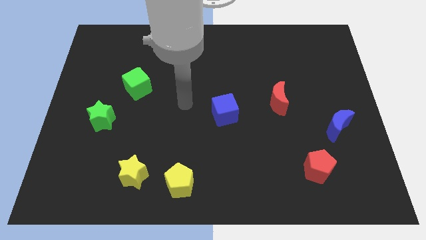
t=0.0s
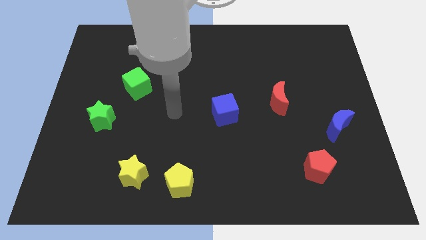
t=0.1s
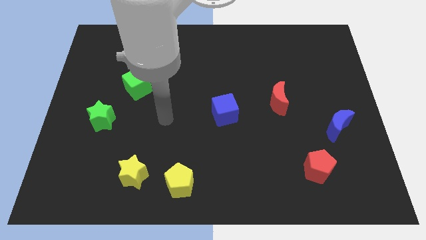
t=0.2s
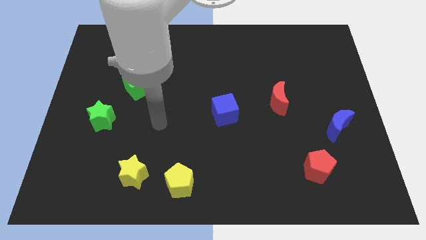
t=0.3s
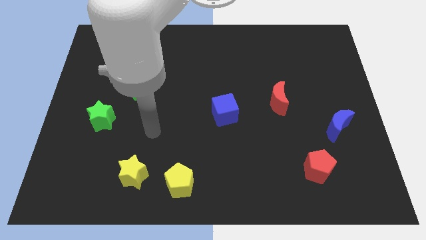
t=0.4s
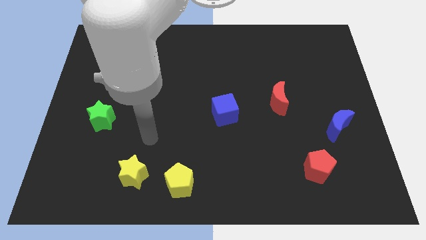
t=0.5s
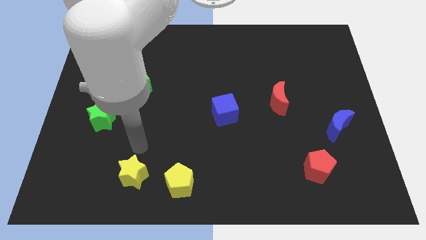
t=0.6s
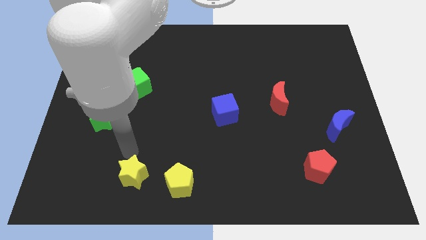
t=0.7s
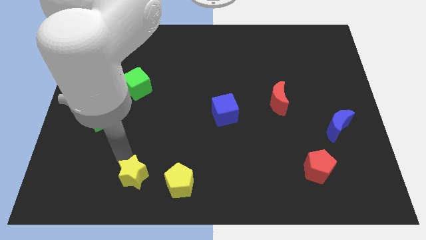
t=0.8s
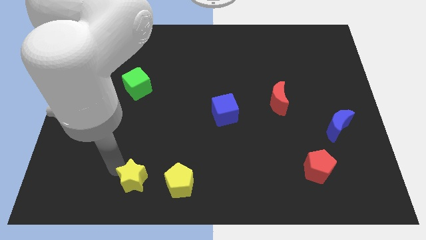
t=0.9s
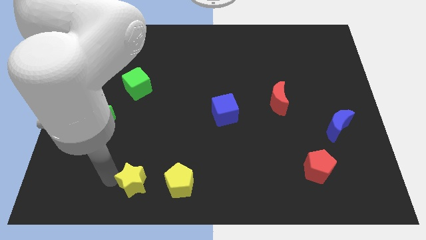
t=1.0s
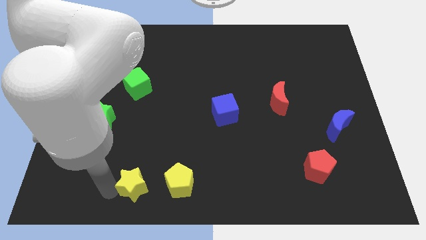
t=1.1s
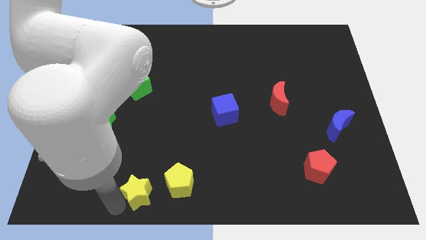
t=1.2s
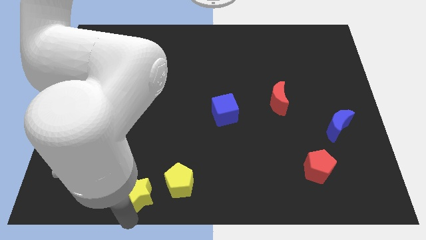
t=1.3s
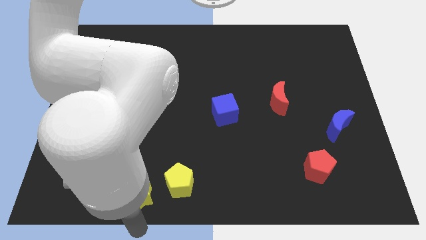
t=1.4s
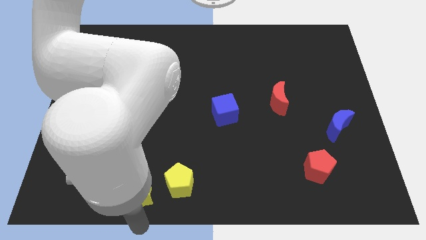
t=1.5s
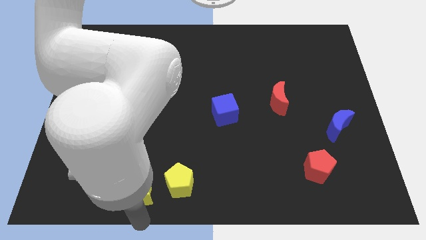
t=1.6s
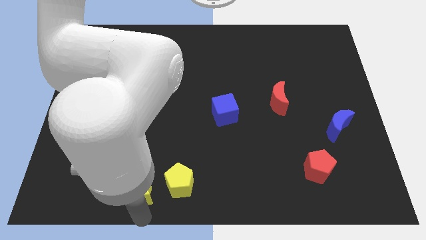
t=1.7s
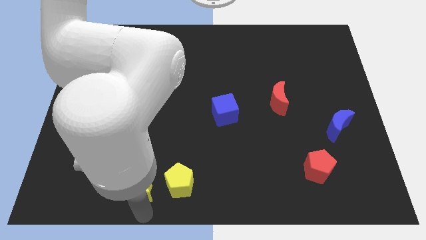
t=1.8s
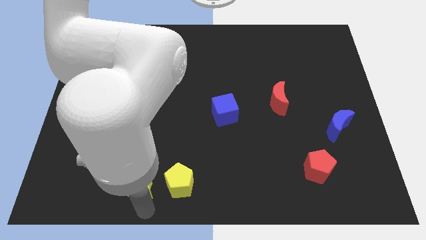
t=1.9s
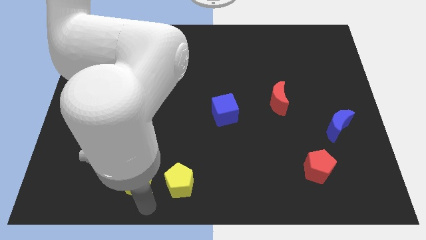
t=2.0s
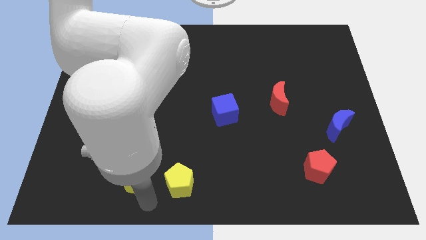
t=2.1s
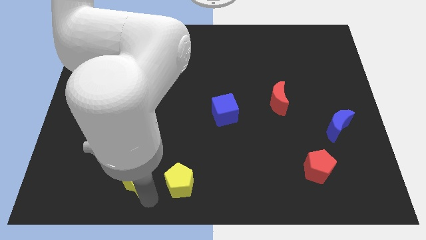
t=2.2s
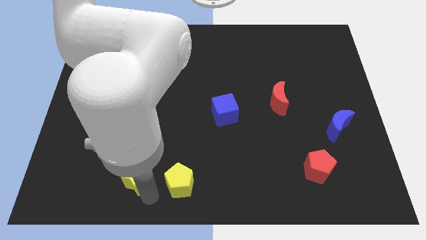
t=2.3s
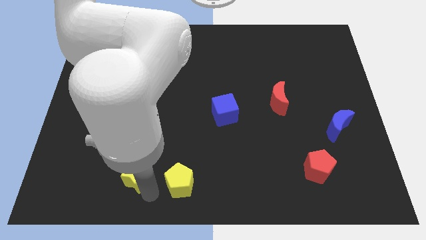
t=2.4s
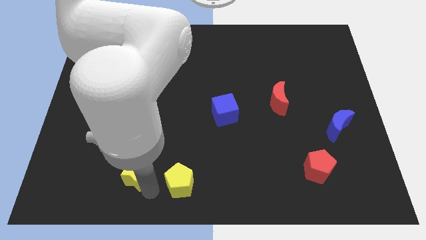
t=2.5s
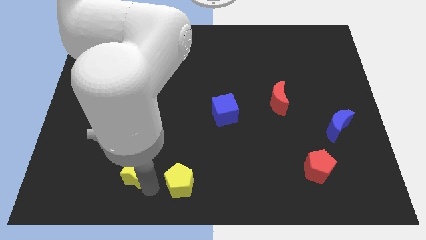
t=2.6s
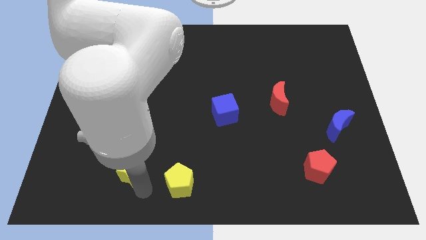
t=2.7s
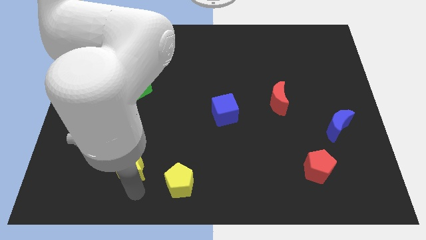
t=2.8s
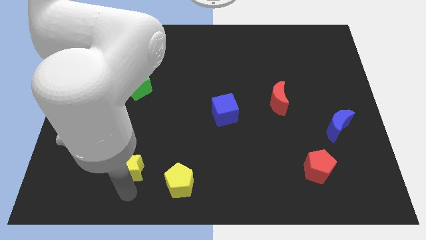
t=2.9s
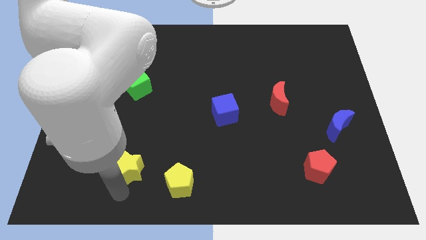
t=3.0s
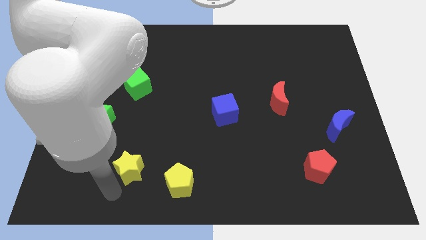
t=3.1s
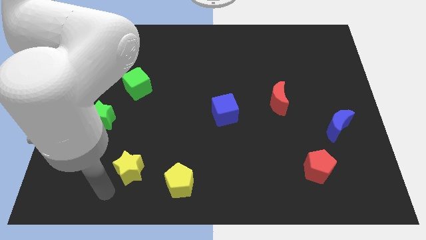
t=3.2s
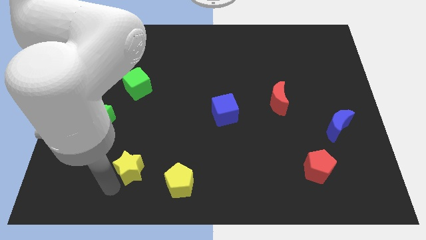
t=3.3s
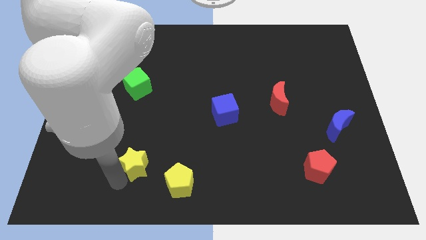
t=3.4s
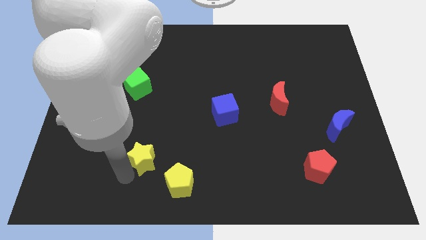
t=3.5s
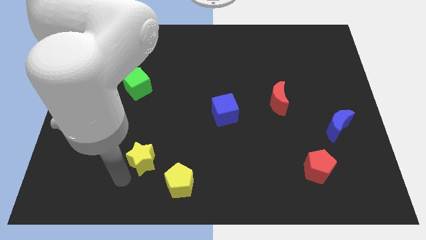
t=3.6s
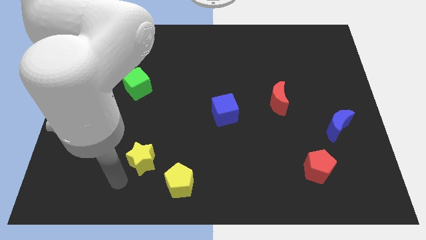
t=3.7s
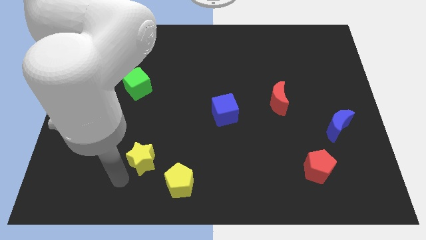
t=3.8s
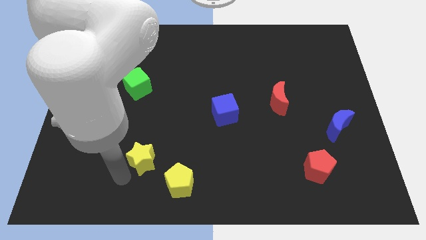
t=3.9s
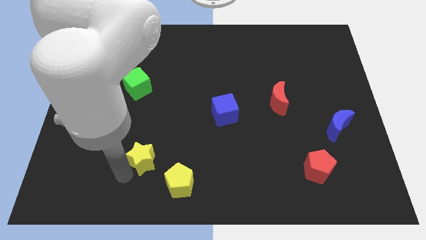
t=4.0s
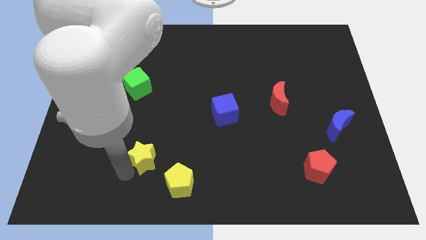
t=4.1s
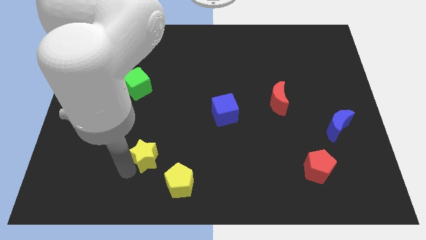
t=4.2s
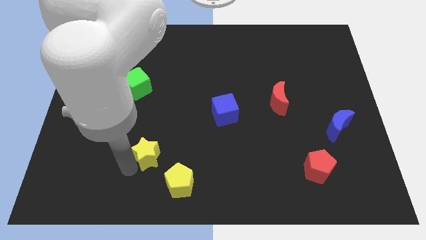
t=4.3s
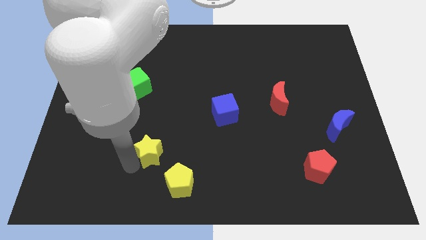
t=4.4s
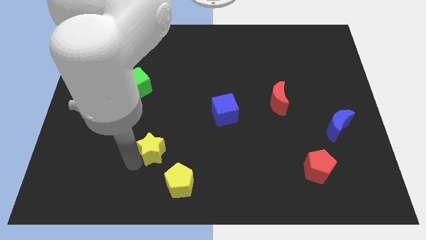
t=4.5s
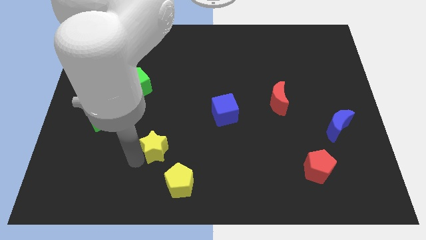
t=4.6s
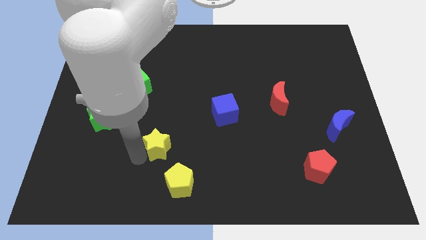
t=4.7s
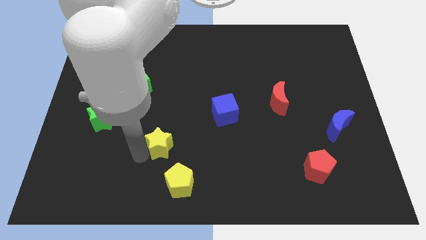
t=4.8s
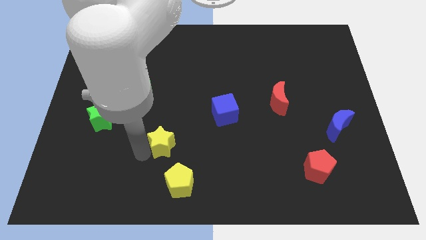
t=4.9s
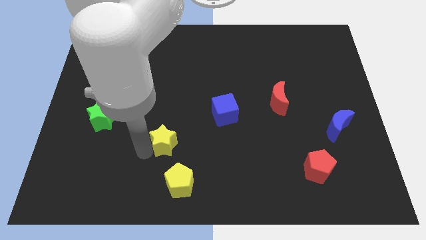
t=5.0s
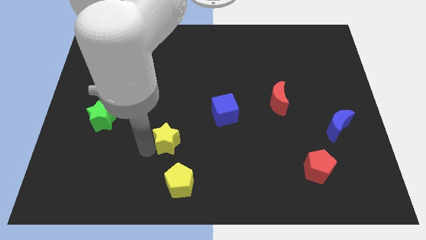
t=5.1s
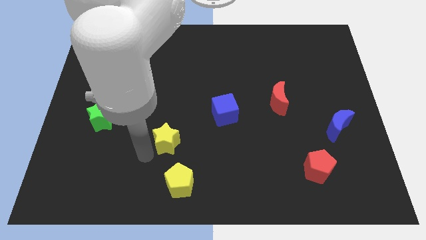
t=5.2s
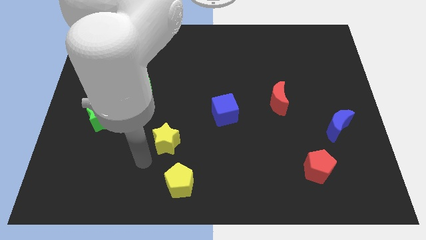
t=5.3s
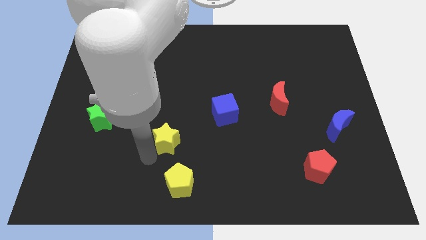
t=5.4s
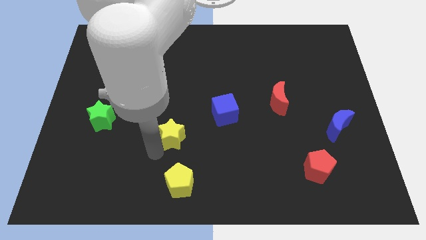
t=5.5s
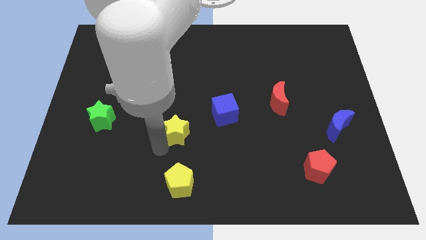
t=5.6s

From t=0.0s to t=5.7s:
push the yellow star to the center of the board

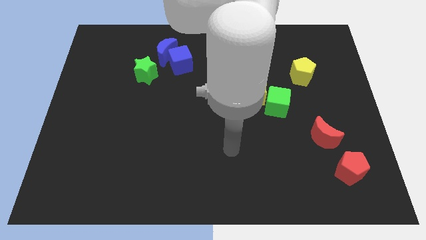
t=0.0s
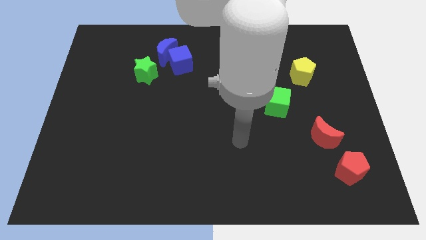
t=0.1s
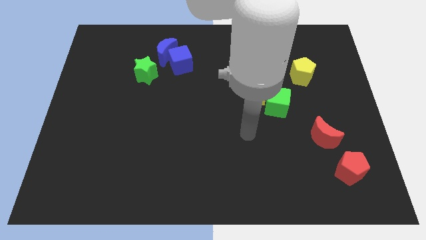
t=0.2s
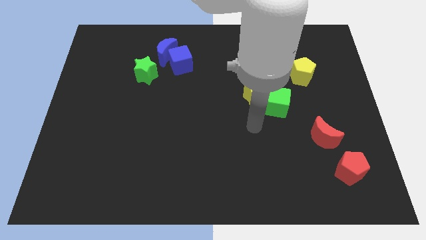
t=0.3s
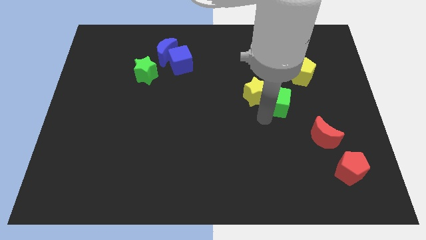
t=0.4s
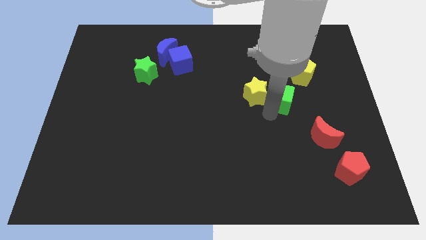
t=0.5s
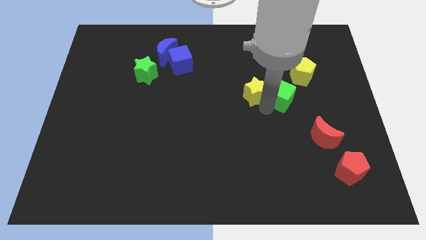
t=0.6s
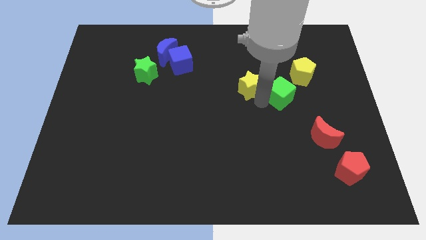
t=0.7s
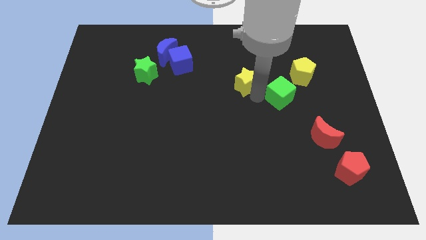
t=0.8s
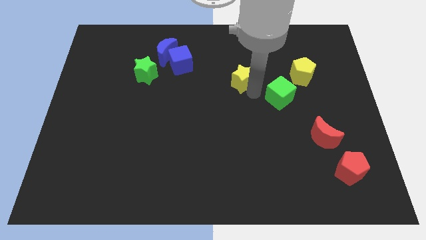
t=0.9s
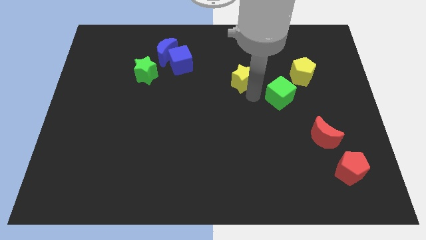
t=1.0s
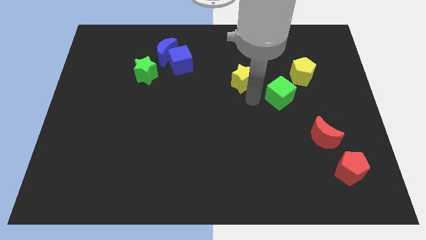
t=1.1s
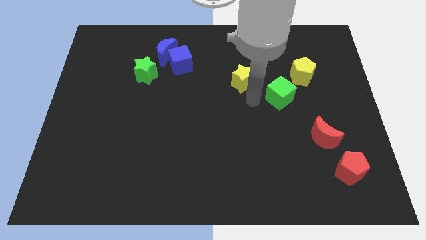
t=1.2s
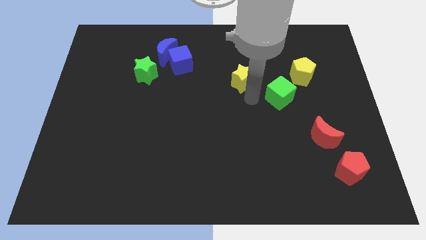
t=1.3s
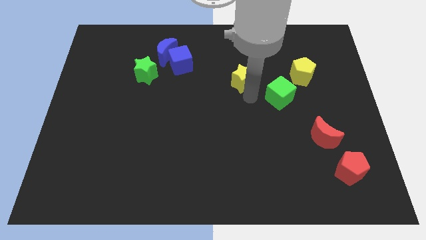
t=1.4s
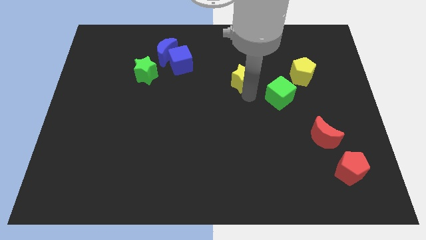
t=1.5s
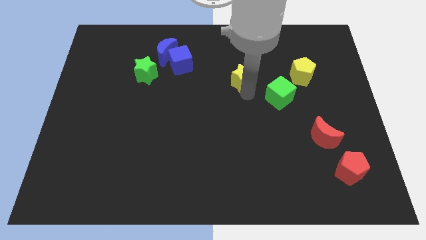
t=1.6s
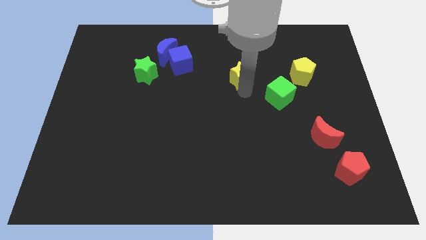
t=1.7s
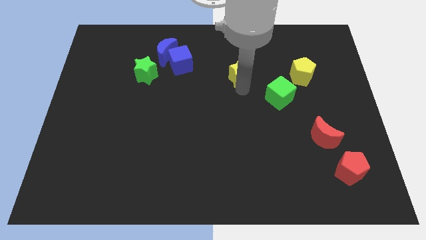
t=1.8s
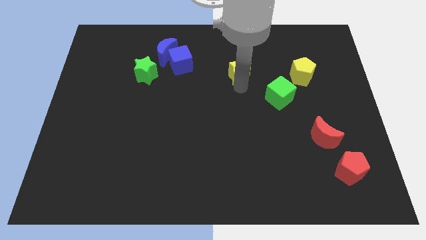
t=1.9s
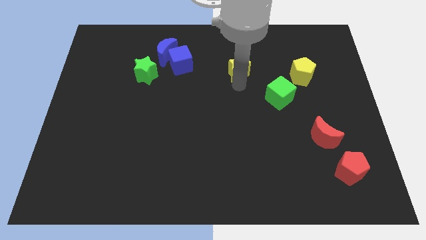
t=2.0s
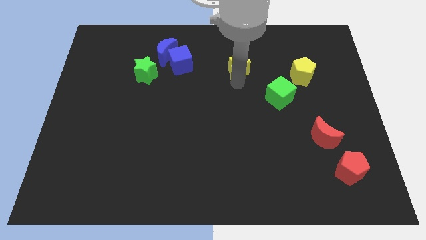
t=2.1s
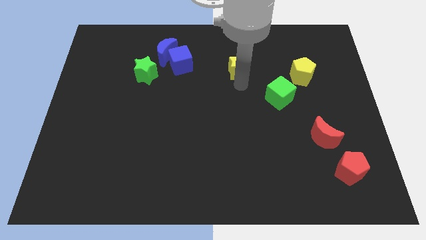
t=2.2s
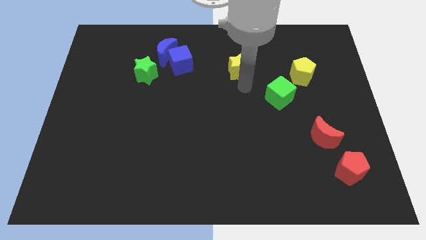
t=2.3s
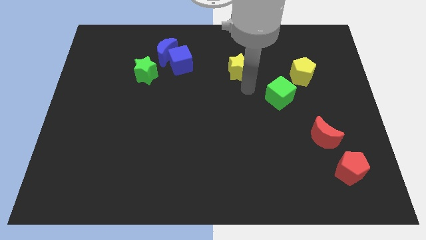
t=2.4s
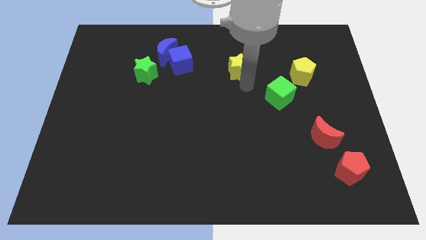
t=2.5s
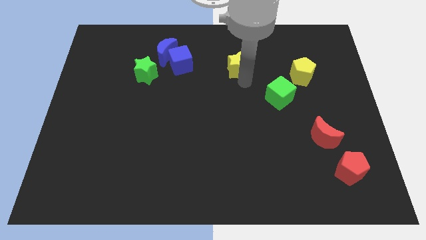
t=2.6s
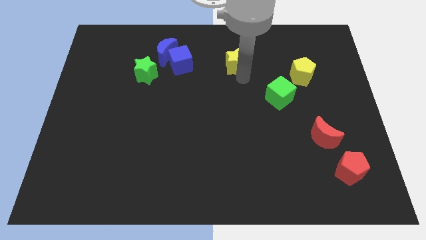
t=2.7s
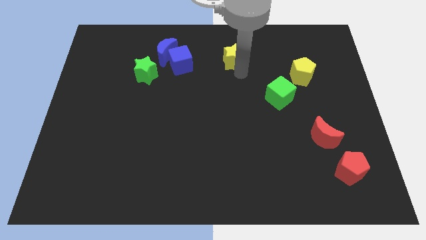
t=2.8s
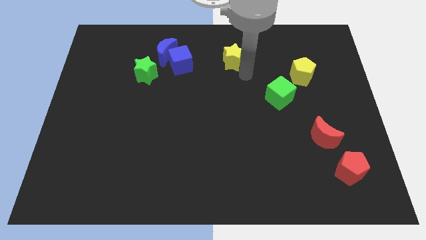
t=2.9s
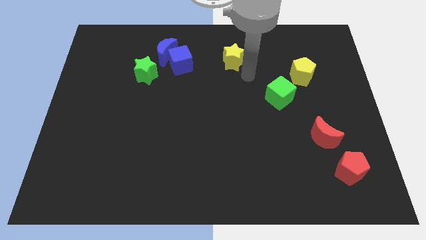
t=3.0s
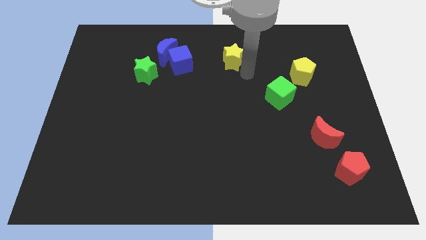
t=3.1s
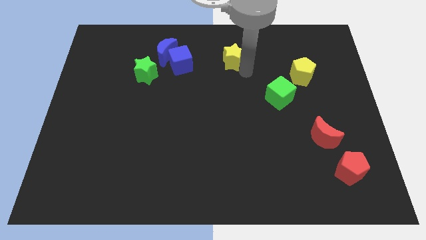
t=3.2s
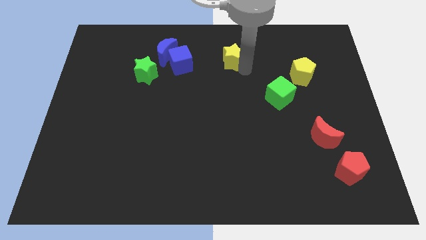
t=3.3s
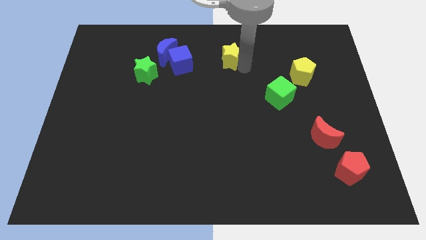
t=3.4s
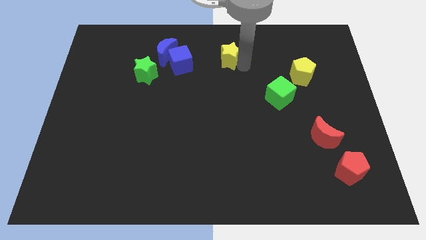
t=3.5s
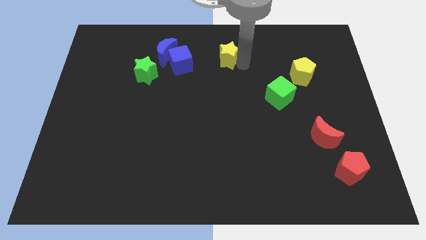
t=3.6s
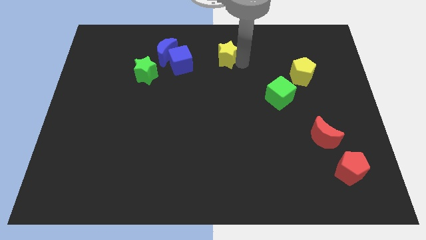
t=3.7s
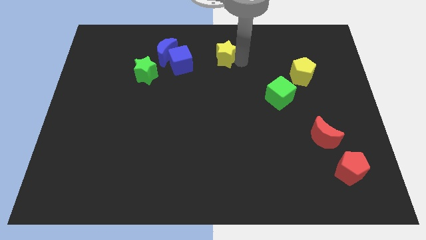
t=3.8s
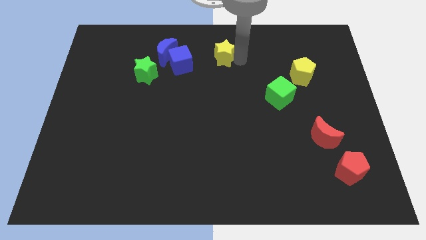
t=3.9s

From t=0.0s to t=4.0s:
push the yellow star to the top side
